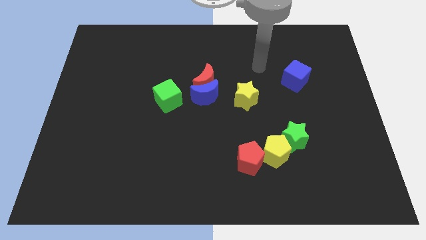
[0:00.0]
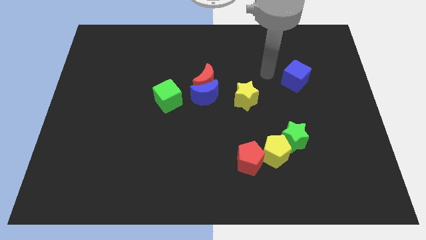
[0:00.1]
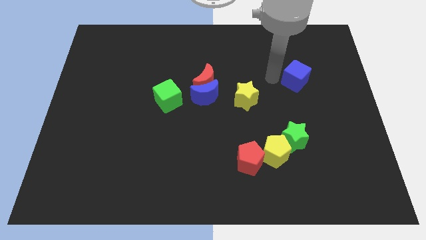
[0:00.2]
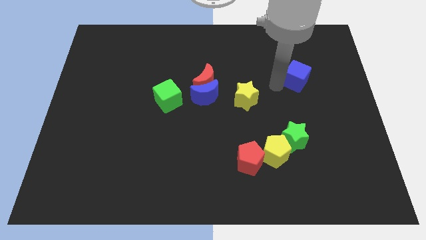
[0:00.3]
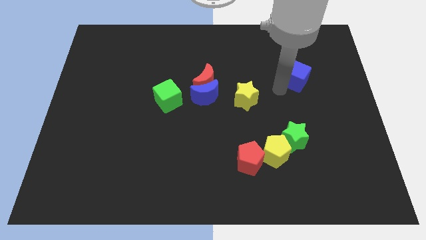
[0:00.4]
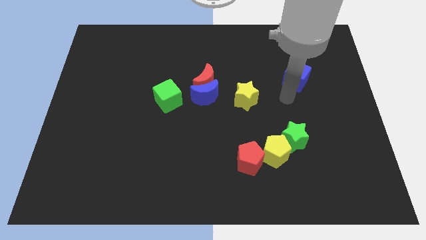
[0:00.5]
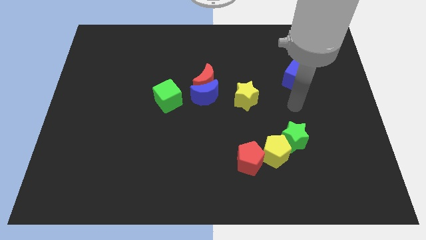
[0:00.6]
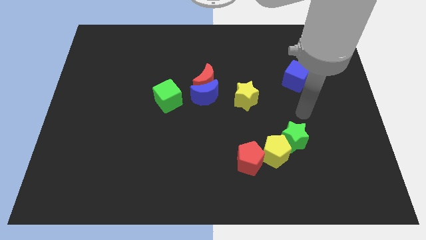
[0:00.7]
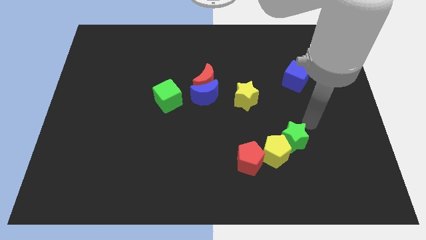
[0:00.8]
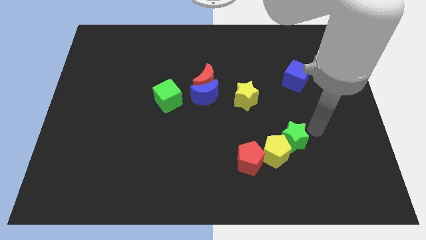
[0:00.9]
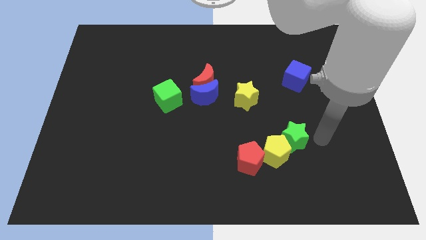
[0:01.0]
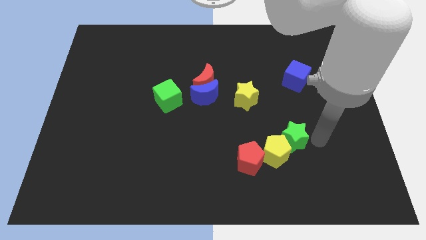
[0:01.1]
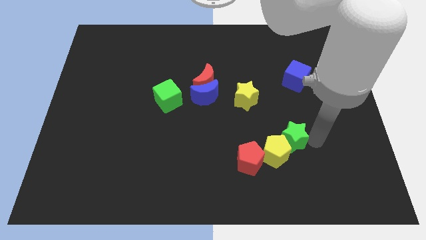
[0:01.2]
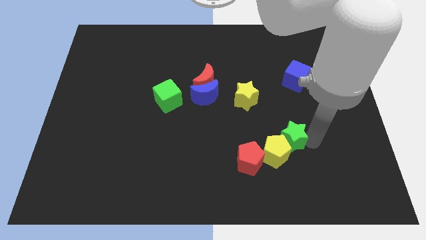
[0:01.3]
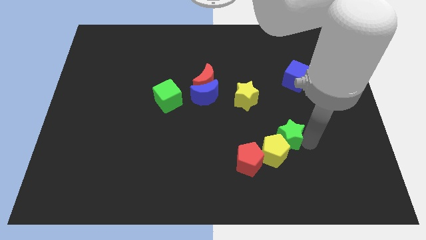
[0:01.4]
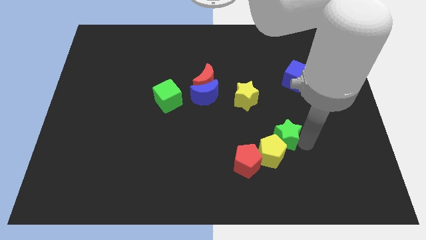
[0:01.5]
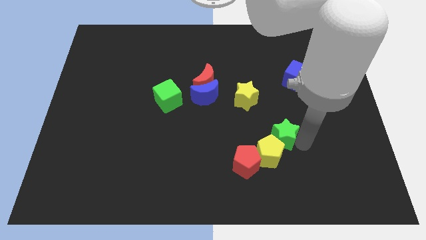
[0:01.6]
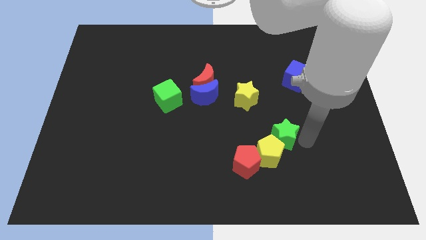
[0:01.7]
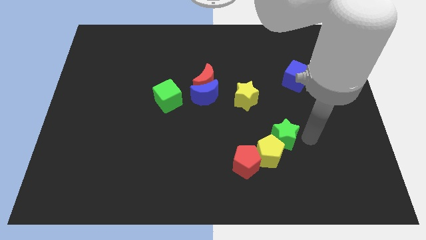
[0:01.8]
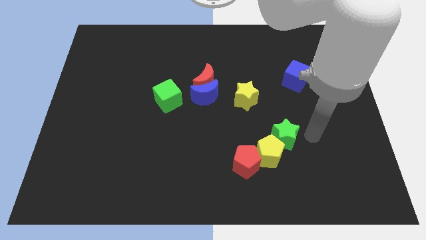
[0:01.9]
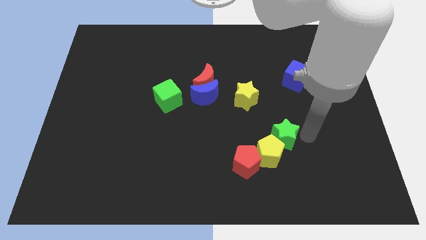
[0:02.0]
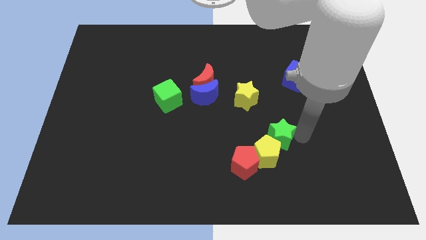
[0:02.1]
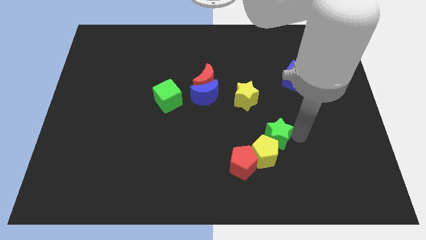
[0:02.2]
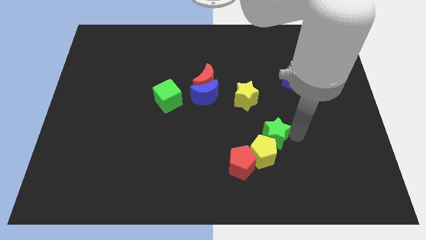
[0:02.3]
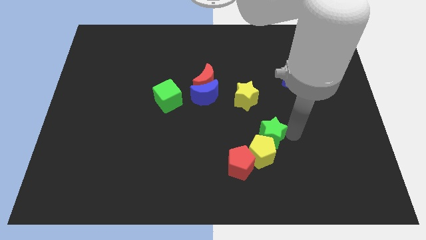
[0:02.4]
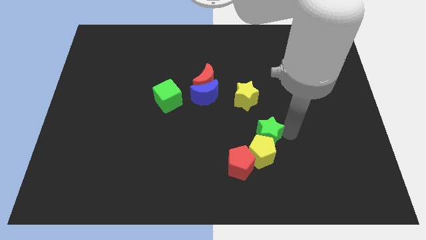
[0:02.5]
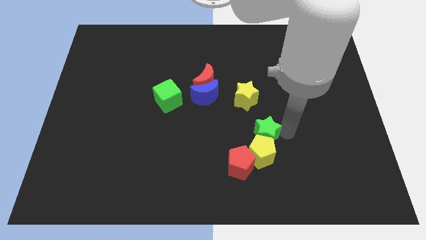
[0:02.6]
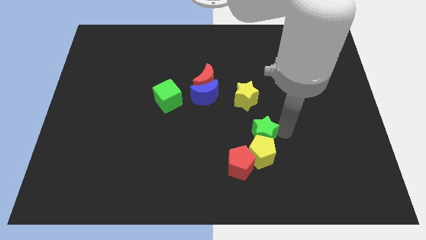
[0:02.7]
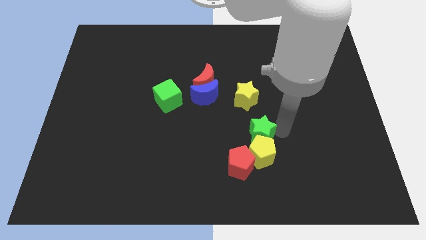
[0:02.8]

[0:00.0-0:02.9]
move the green star to the left a little

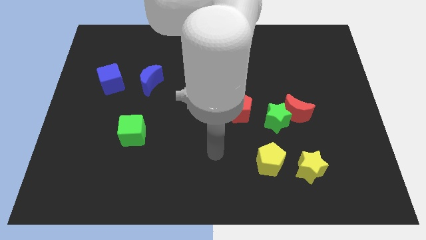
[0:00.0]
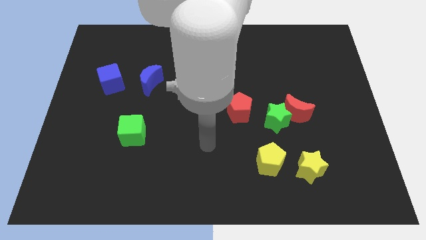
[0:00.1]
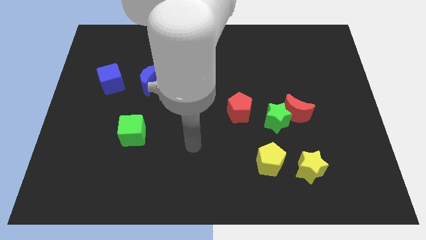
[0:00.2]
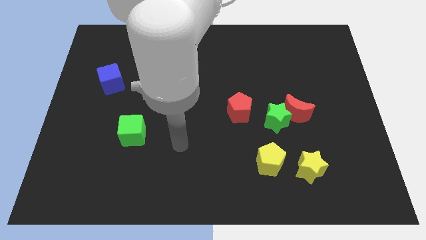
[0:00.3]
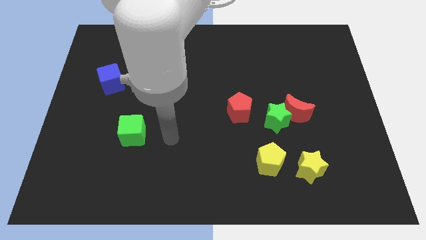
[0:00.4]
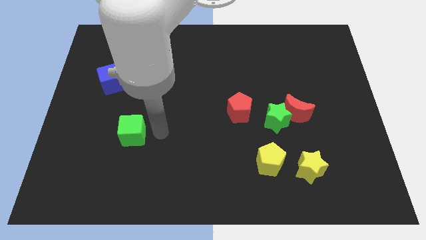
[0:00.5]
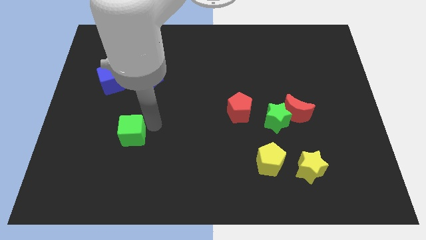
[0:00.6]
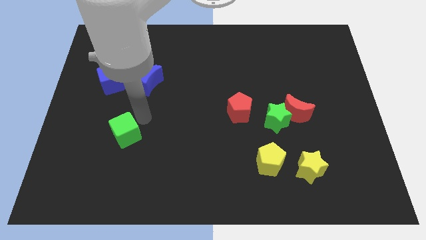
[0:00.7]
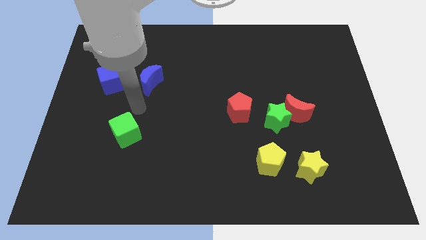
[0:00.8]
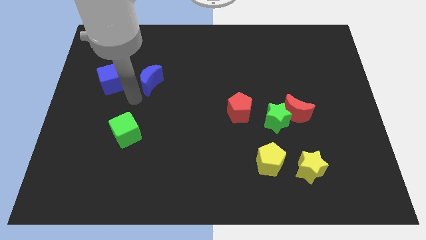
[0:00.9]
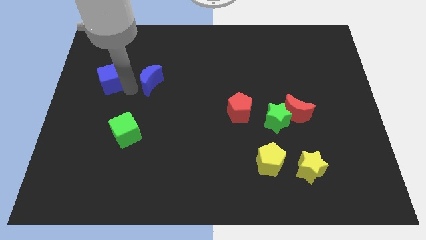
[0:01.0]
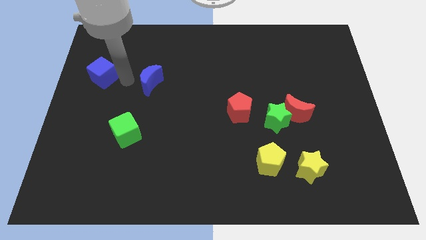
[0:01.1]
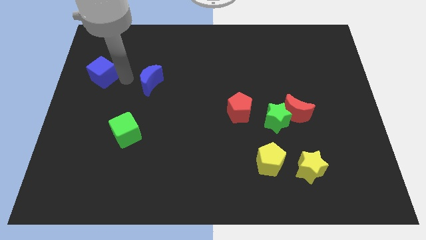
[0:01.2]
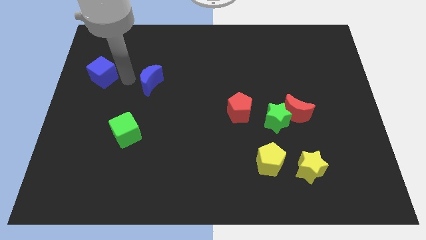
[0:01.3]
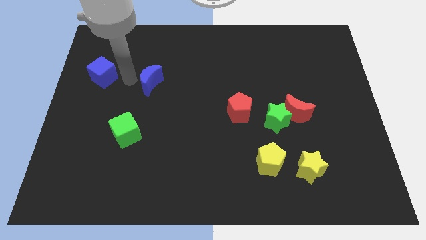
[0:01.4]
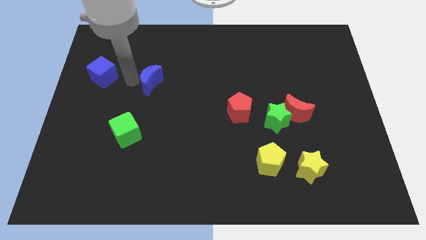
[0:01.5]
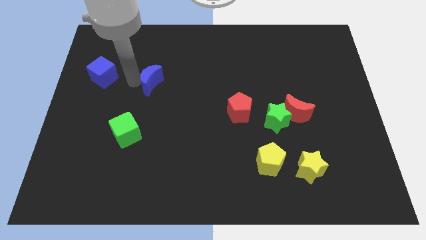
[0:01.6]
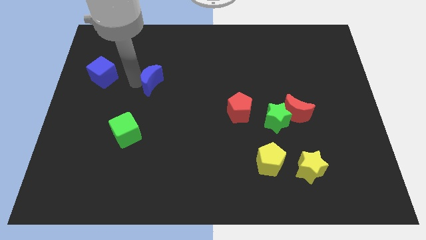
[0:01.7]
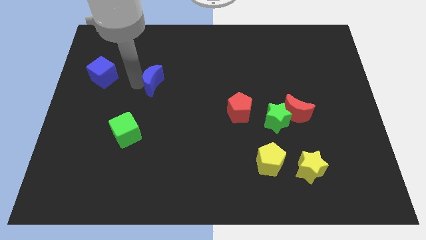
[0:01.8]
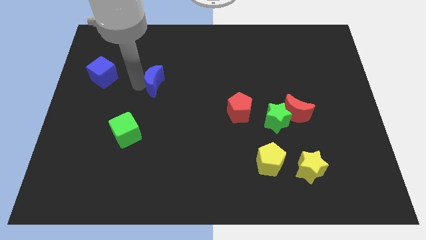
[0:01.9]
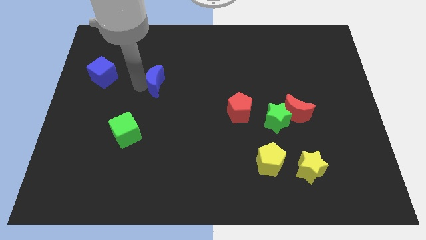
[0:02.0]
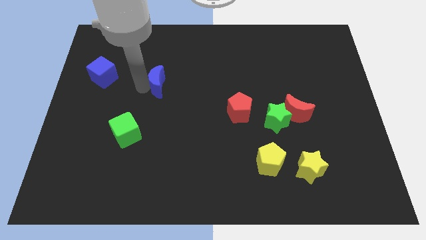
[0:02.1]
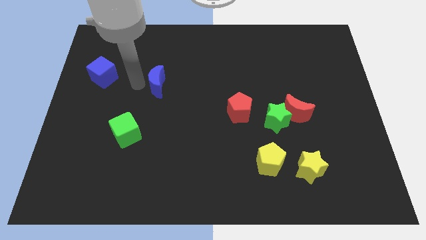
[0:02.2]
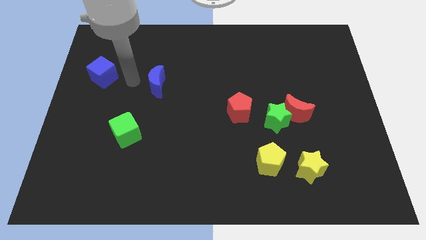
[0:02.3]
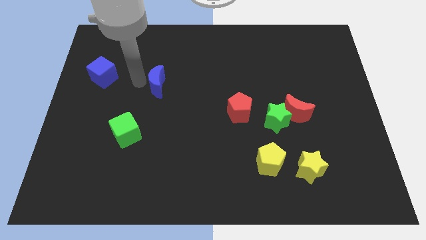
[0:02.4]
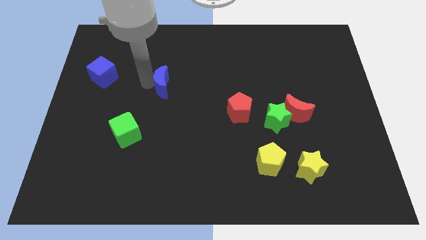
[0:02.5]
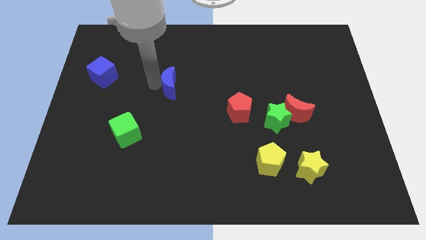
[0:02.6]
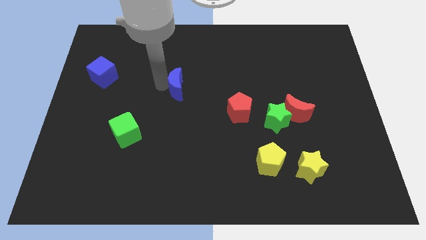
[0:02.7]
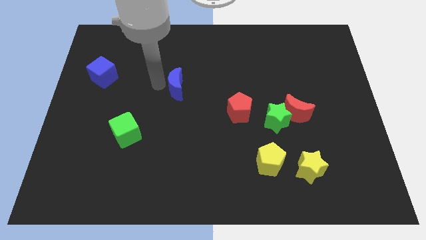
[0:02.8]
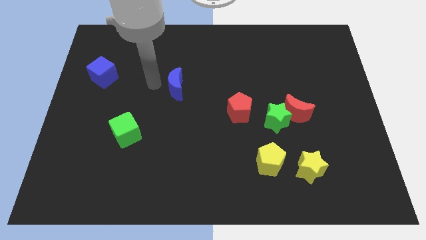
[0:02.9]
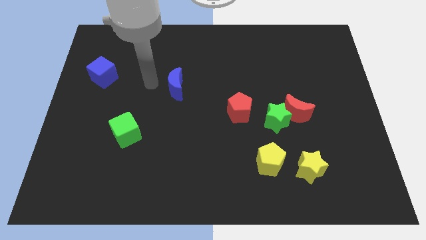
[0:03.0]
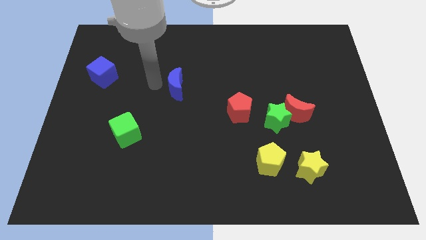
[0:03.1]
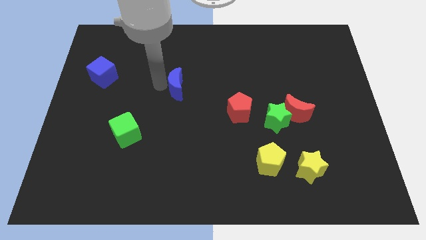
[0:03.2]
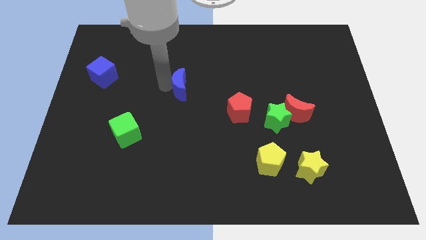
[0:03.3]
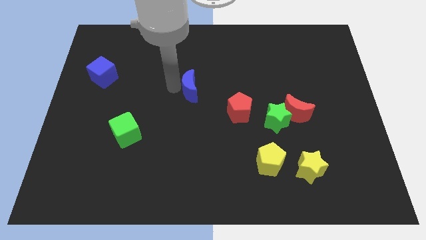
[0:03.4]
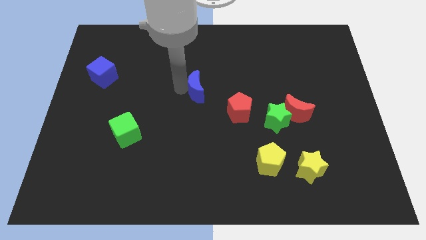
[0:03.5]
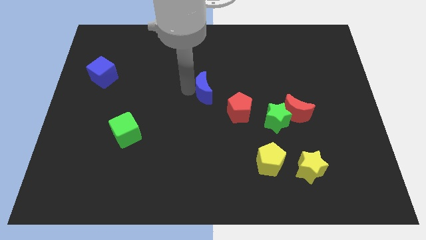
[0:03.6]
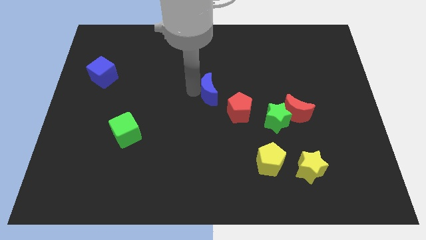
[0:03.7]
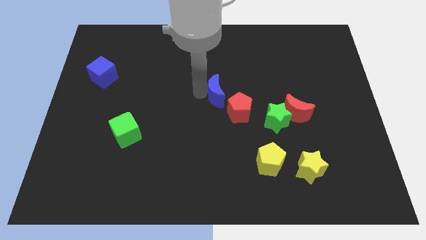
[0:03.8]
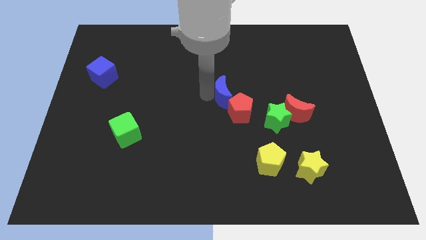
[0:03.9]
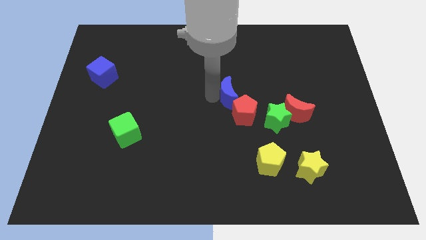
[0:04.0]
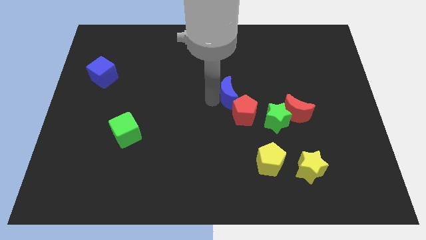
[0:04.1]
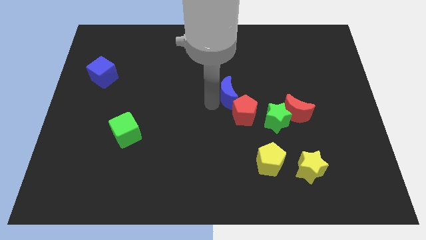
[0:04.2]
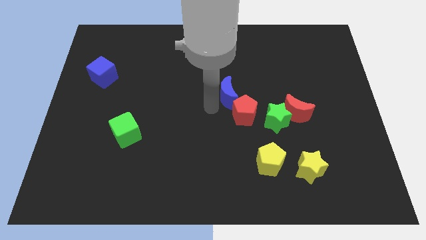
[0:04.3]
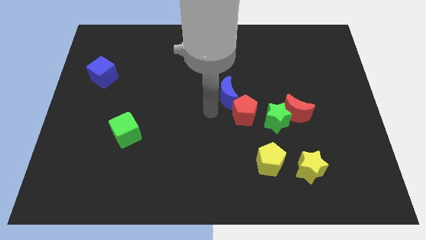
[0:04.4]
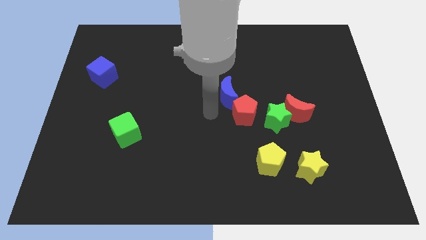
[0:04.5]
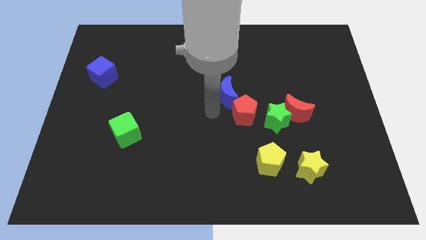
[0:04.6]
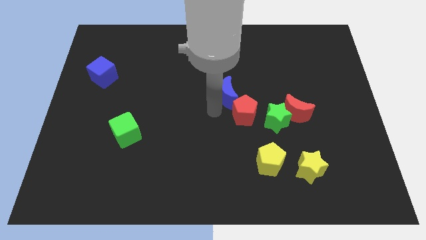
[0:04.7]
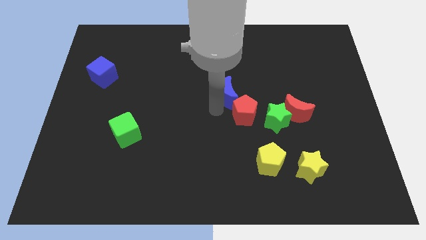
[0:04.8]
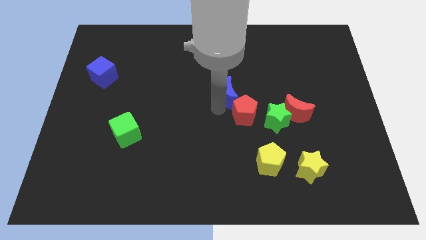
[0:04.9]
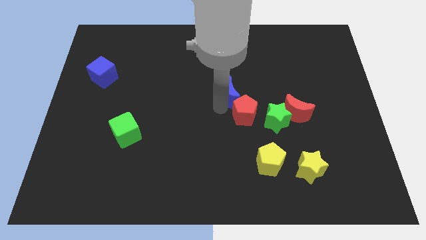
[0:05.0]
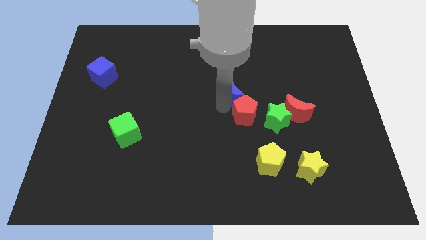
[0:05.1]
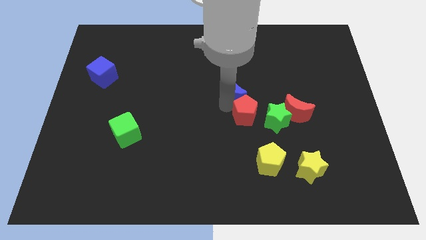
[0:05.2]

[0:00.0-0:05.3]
move the blue moon right
